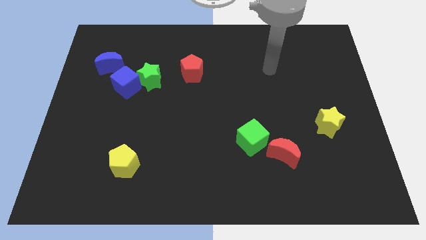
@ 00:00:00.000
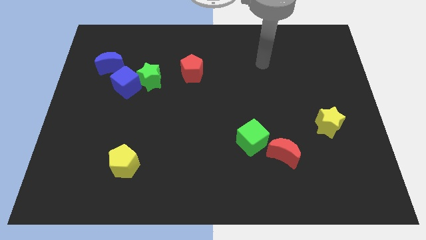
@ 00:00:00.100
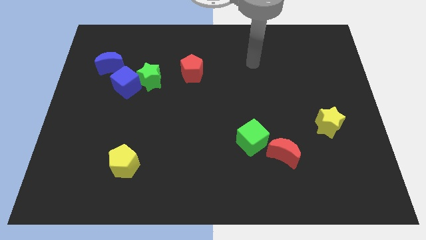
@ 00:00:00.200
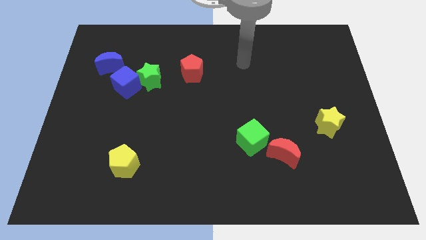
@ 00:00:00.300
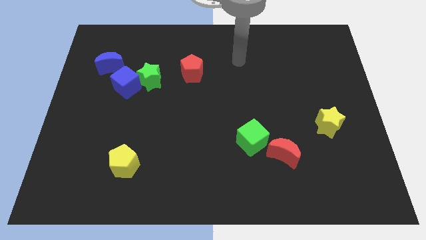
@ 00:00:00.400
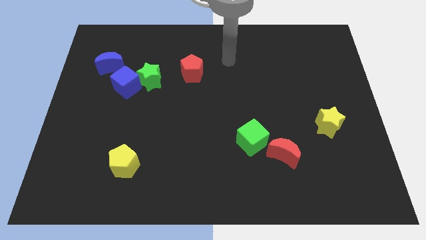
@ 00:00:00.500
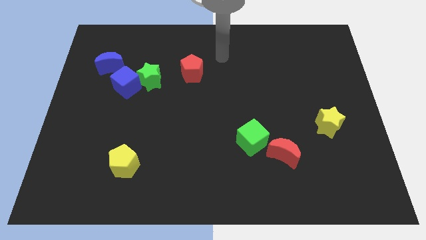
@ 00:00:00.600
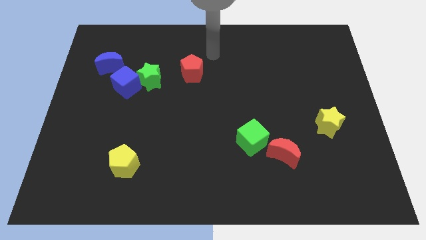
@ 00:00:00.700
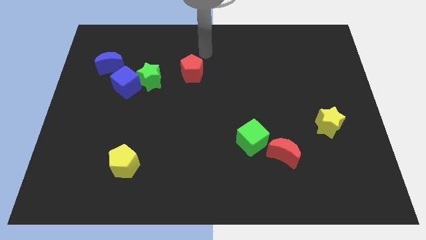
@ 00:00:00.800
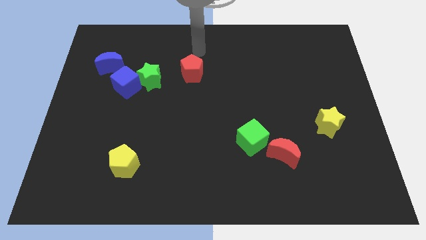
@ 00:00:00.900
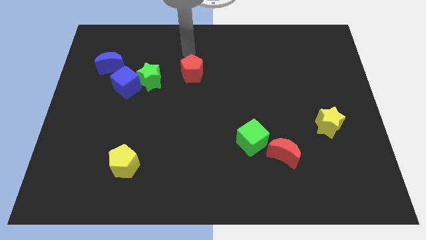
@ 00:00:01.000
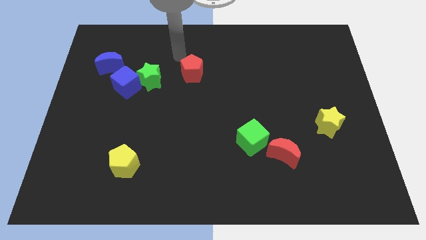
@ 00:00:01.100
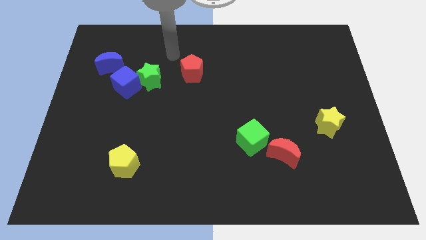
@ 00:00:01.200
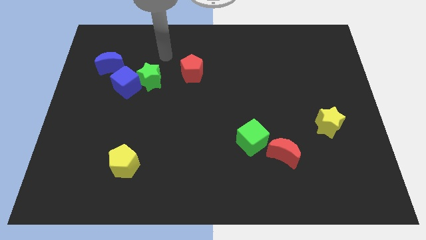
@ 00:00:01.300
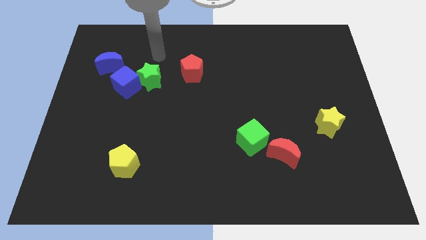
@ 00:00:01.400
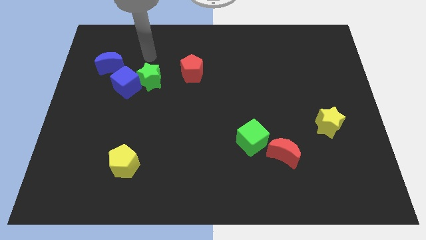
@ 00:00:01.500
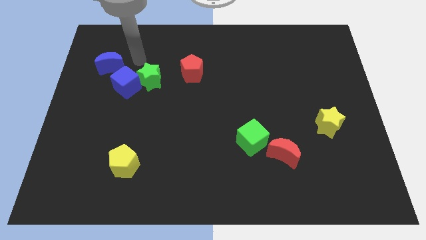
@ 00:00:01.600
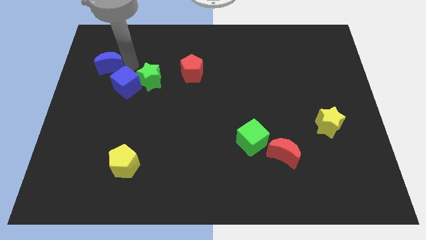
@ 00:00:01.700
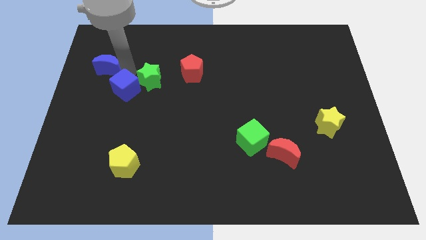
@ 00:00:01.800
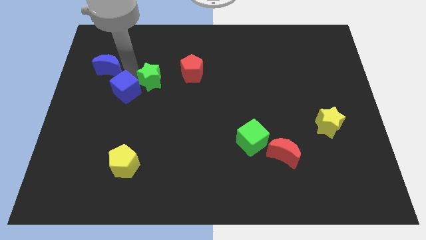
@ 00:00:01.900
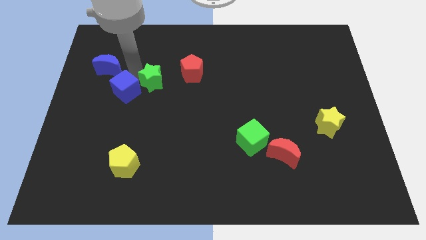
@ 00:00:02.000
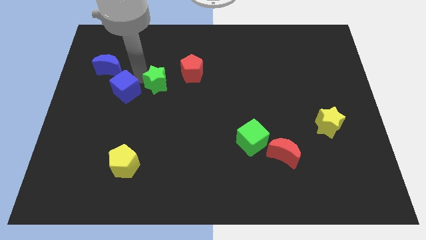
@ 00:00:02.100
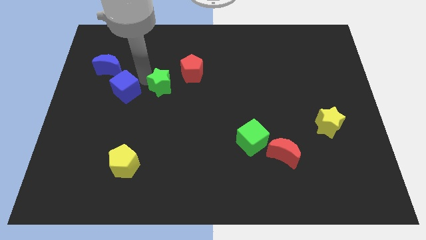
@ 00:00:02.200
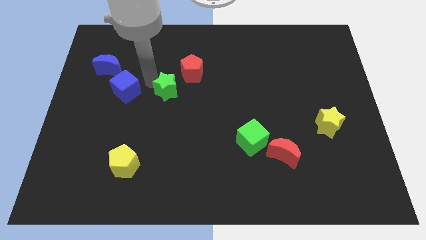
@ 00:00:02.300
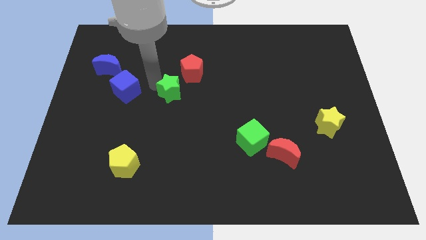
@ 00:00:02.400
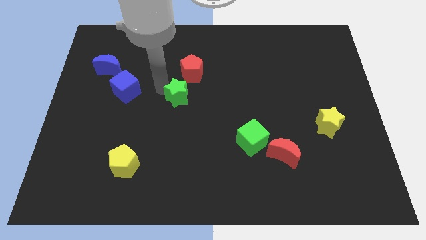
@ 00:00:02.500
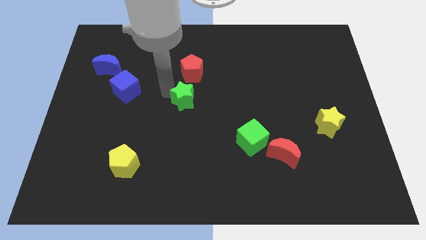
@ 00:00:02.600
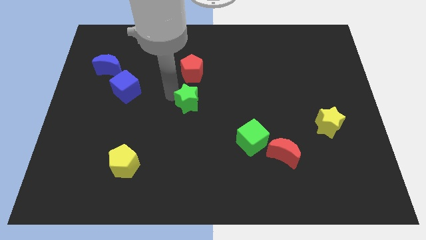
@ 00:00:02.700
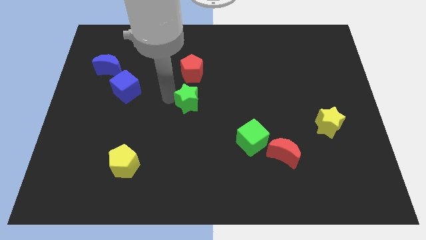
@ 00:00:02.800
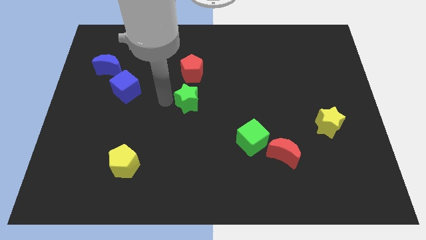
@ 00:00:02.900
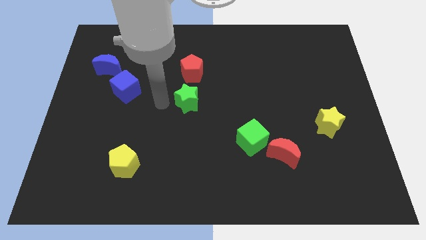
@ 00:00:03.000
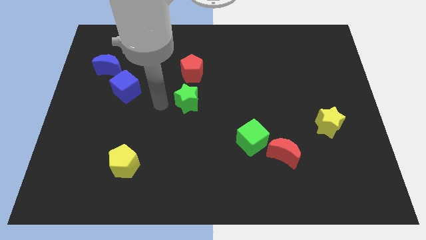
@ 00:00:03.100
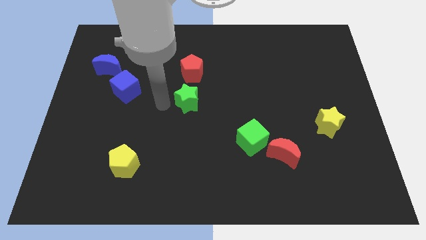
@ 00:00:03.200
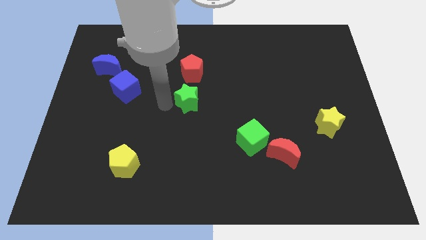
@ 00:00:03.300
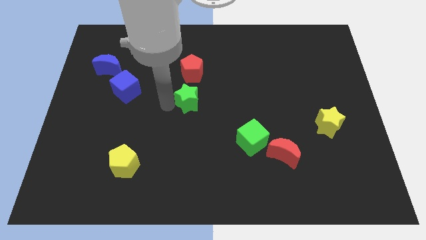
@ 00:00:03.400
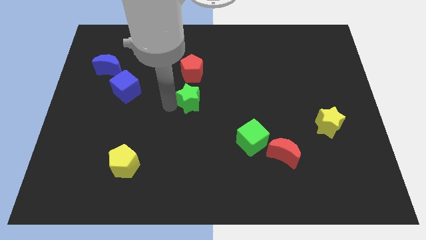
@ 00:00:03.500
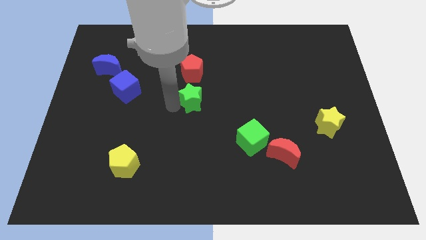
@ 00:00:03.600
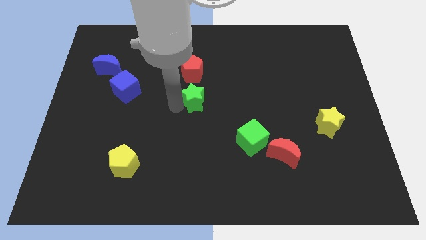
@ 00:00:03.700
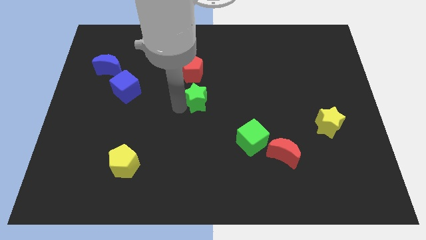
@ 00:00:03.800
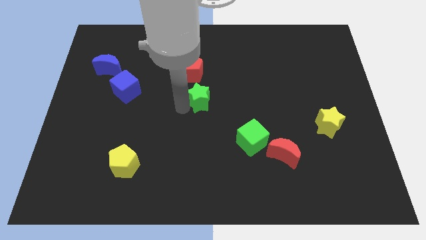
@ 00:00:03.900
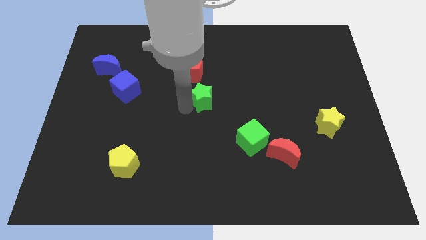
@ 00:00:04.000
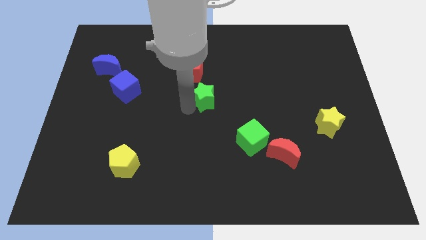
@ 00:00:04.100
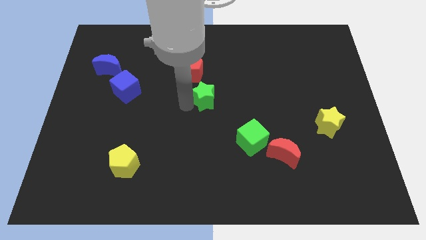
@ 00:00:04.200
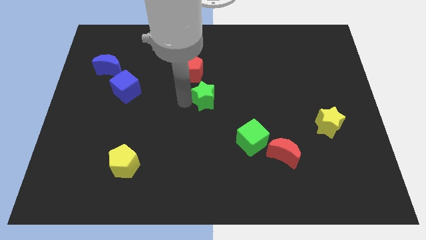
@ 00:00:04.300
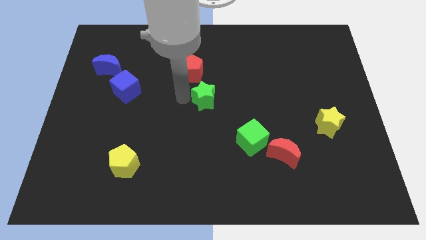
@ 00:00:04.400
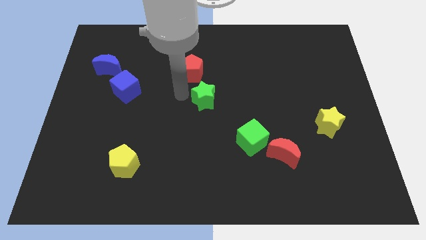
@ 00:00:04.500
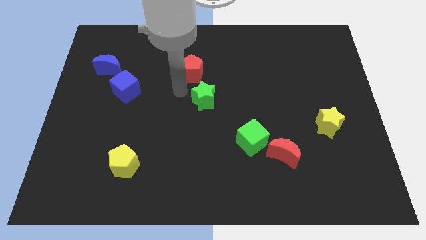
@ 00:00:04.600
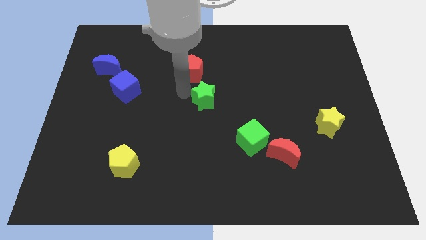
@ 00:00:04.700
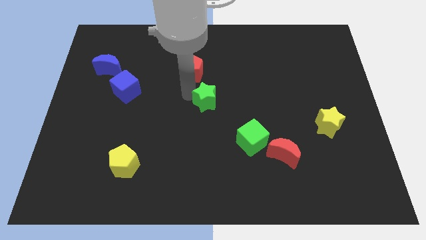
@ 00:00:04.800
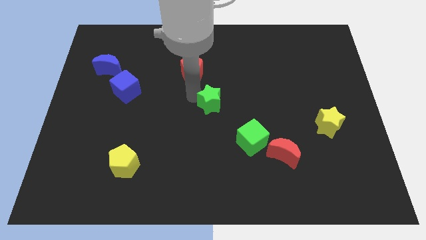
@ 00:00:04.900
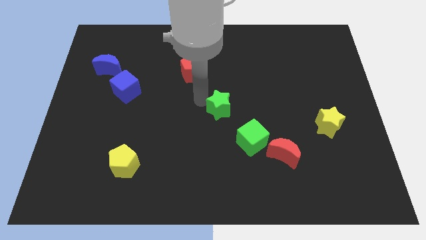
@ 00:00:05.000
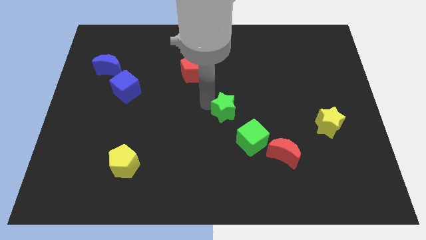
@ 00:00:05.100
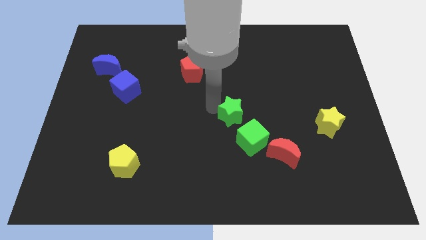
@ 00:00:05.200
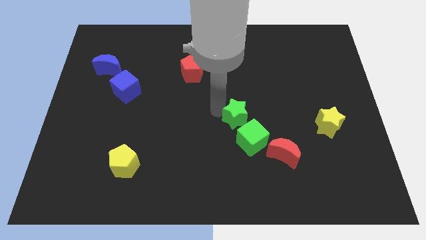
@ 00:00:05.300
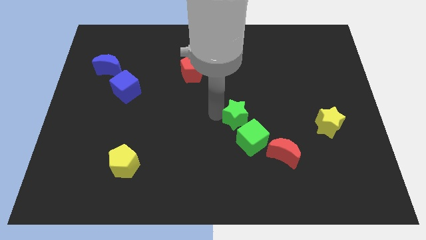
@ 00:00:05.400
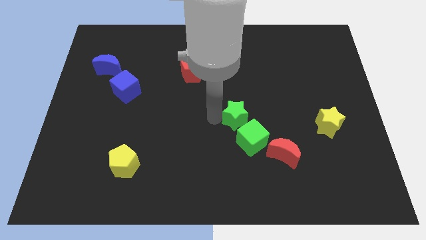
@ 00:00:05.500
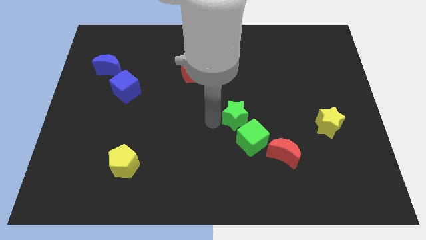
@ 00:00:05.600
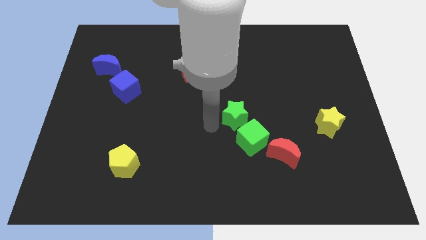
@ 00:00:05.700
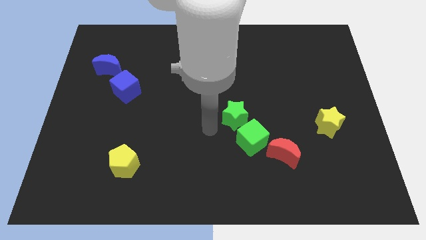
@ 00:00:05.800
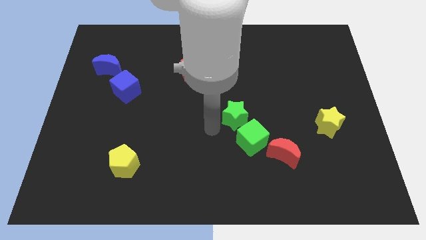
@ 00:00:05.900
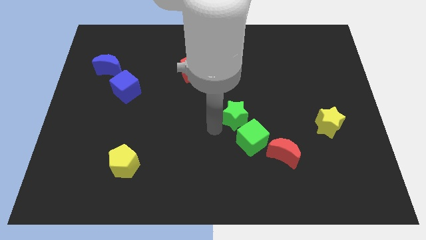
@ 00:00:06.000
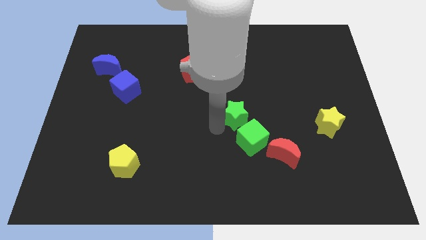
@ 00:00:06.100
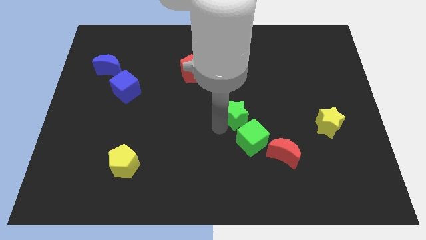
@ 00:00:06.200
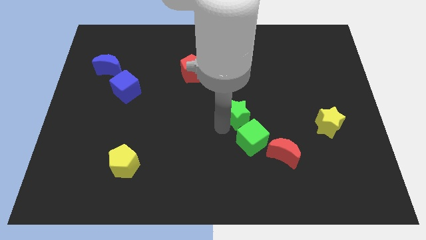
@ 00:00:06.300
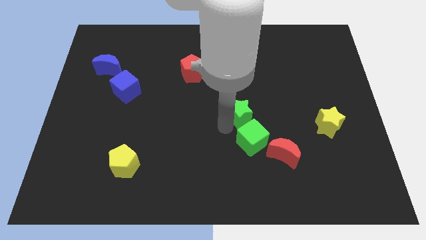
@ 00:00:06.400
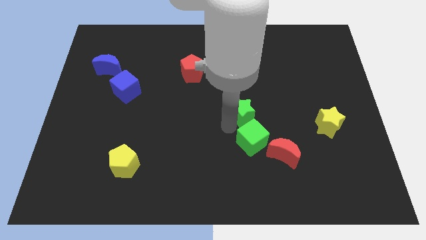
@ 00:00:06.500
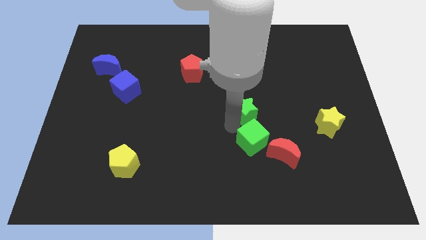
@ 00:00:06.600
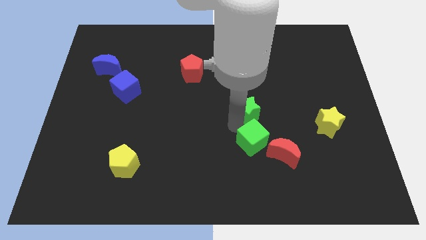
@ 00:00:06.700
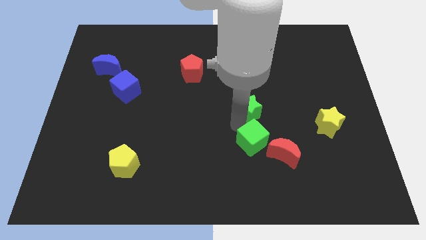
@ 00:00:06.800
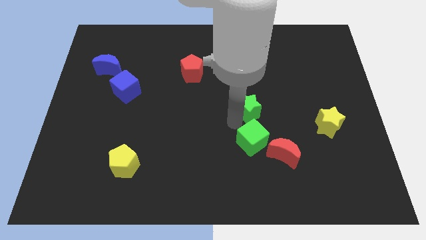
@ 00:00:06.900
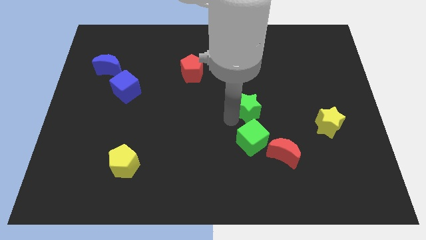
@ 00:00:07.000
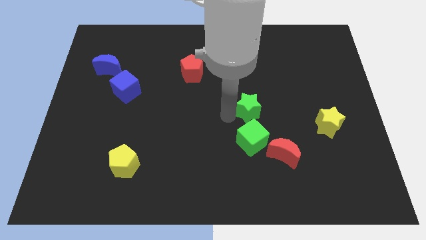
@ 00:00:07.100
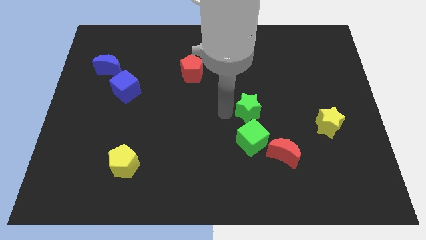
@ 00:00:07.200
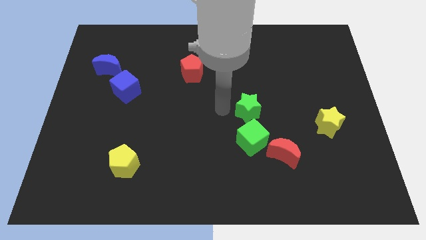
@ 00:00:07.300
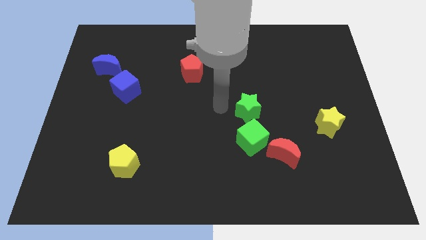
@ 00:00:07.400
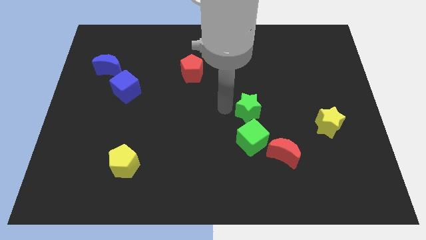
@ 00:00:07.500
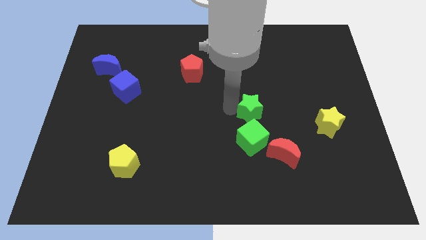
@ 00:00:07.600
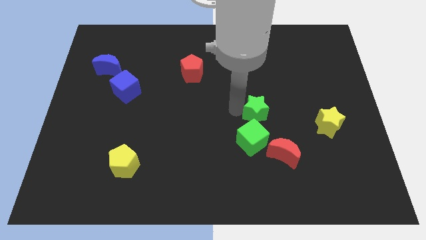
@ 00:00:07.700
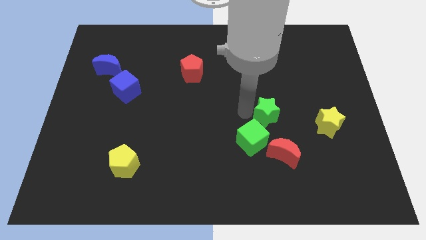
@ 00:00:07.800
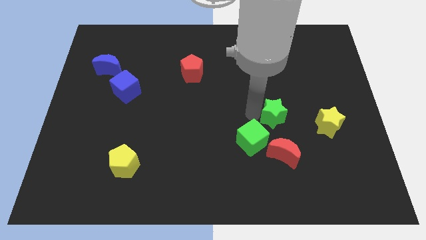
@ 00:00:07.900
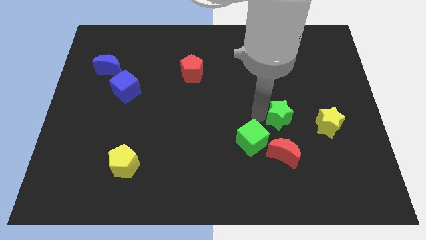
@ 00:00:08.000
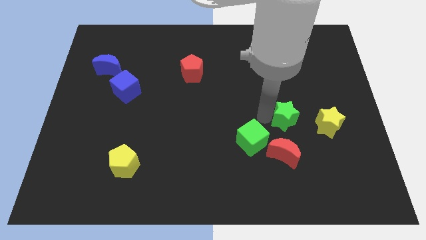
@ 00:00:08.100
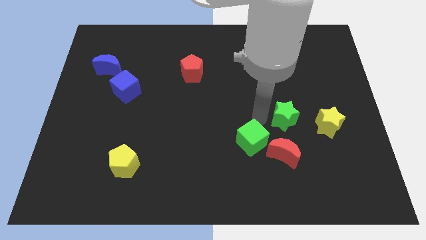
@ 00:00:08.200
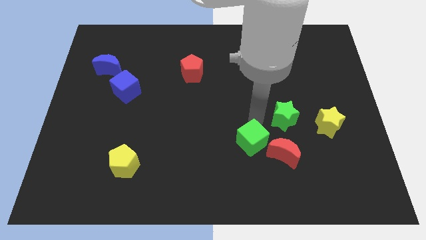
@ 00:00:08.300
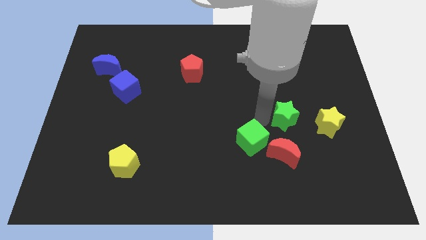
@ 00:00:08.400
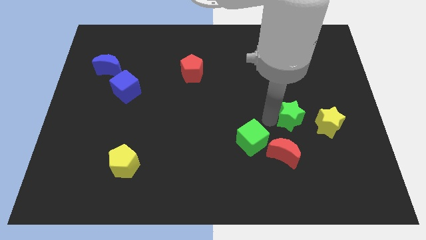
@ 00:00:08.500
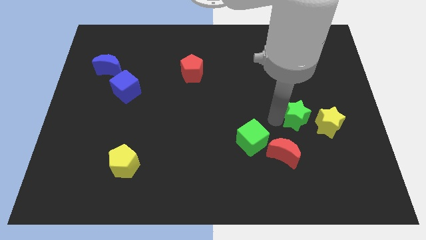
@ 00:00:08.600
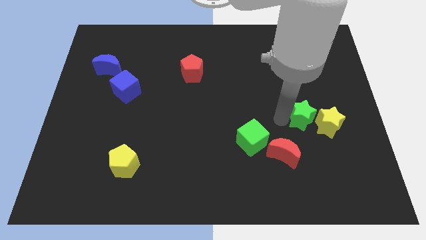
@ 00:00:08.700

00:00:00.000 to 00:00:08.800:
put the green star to the yellow star
